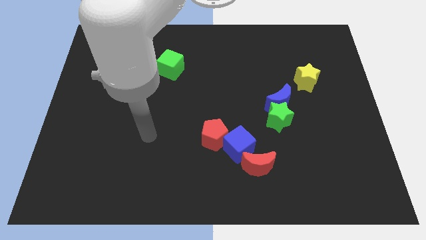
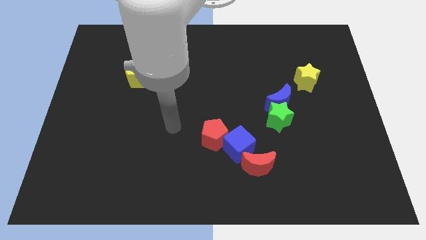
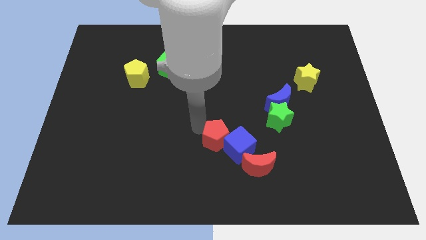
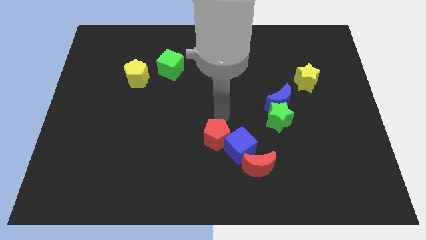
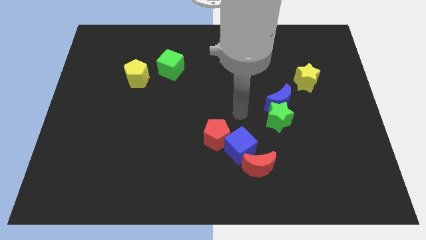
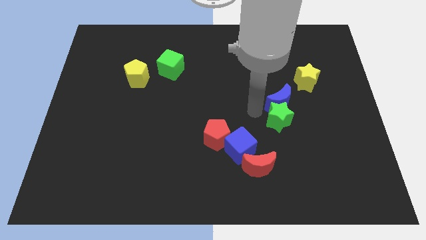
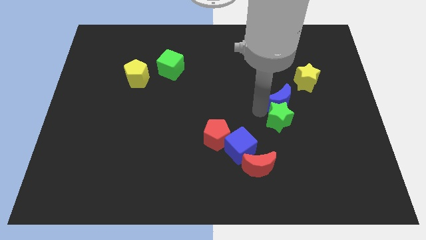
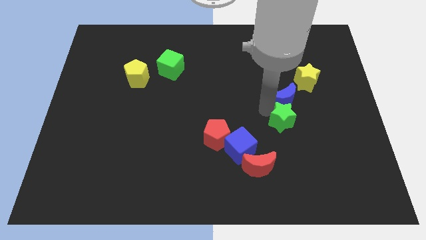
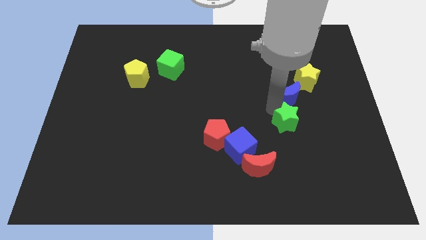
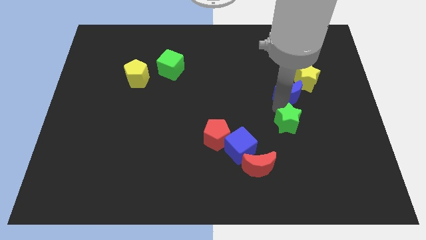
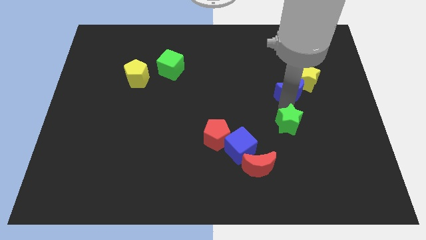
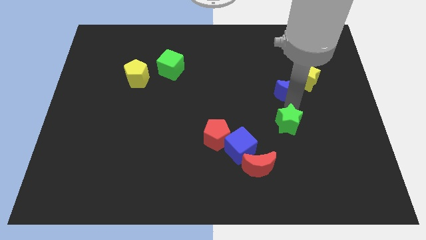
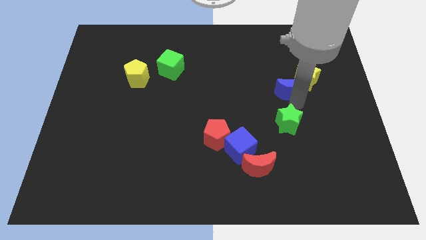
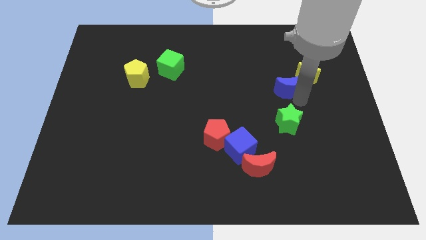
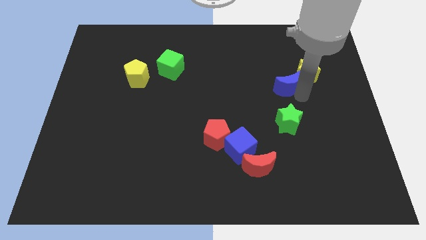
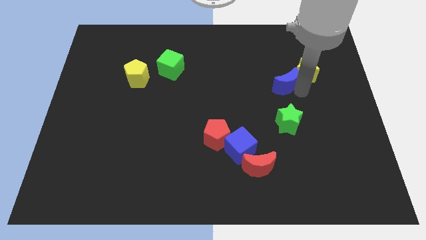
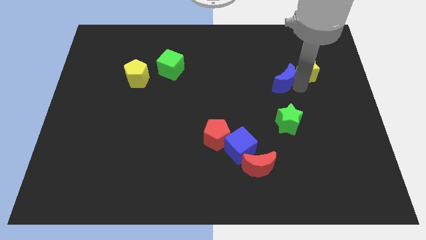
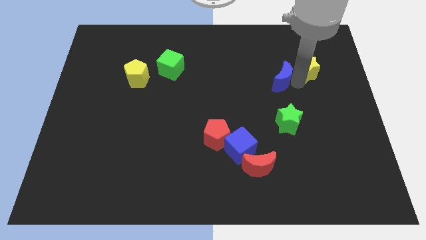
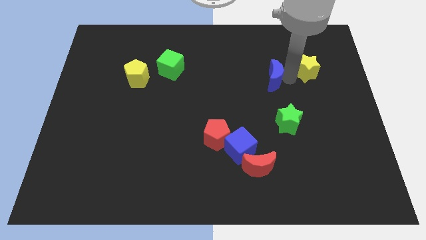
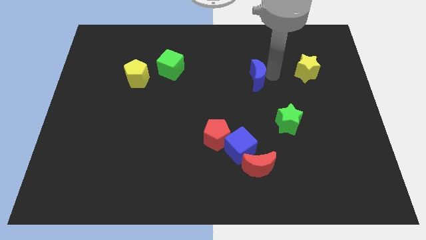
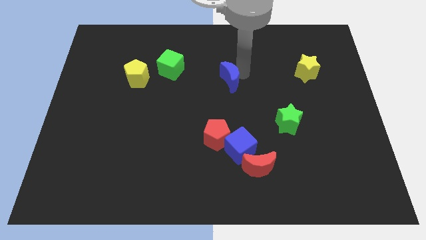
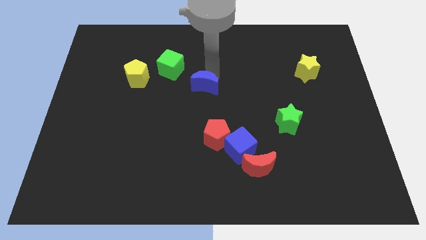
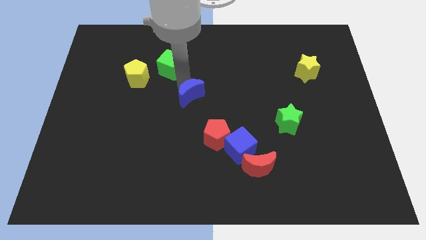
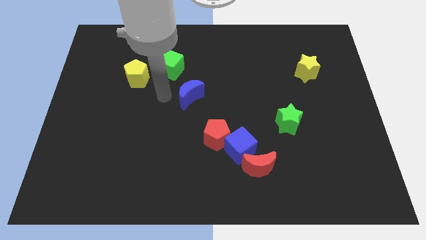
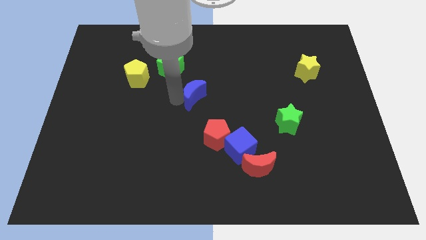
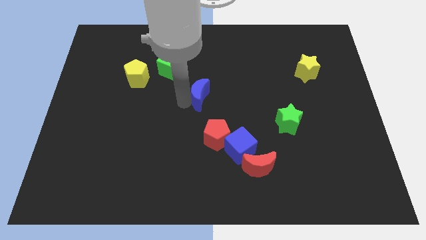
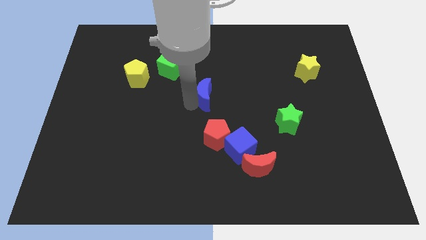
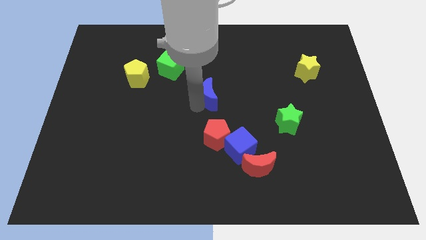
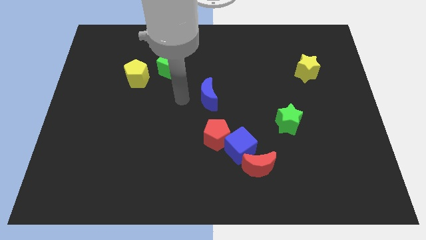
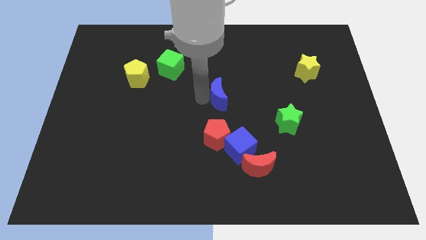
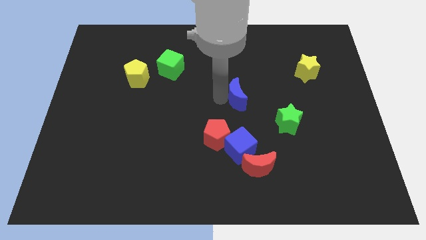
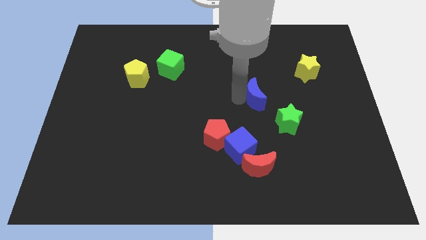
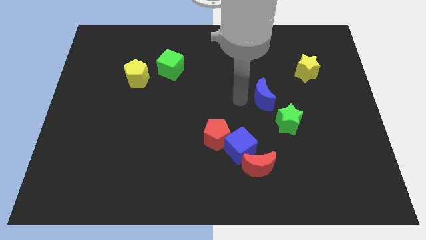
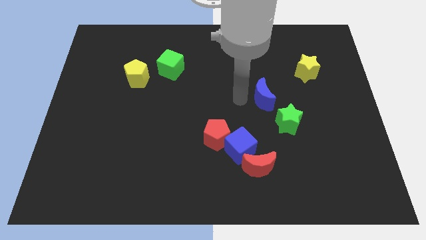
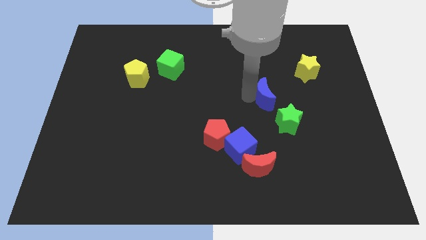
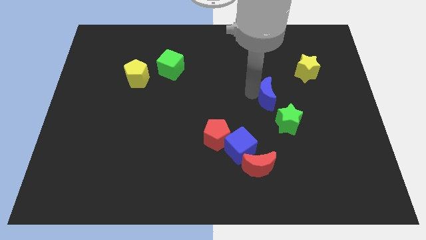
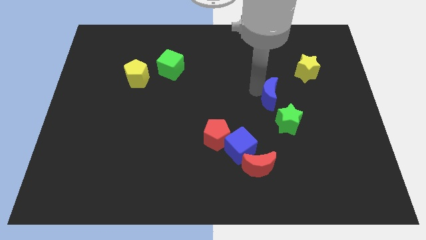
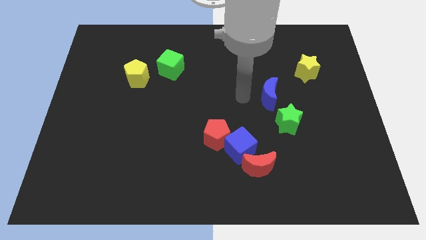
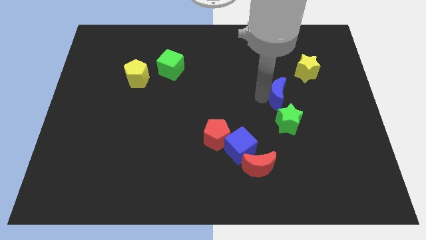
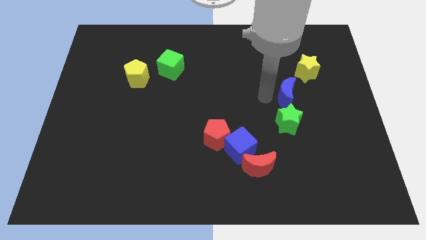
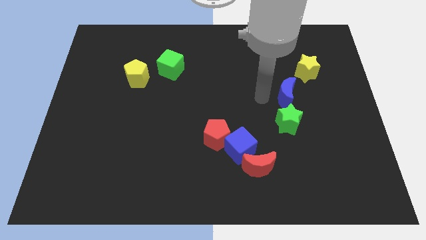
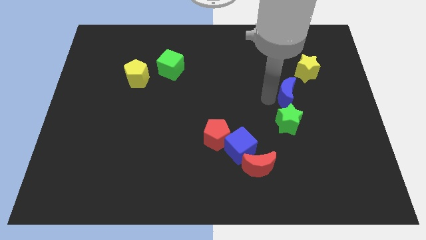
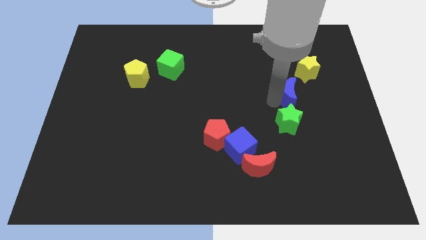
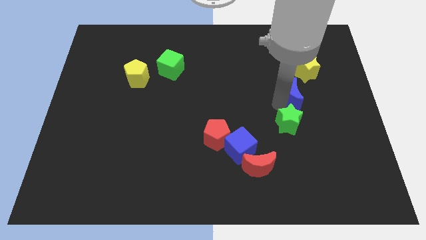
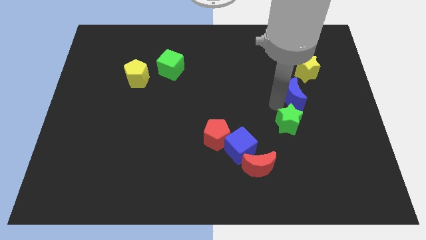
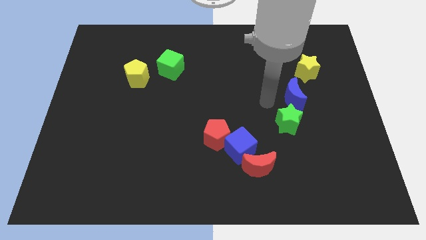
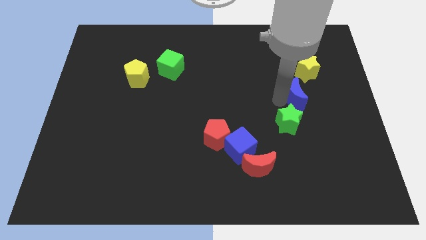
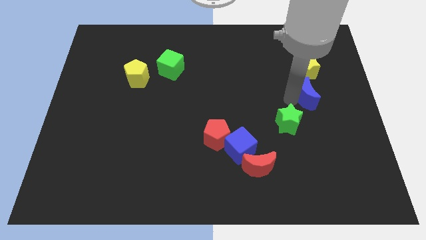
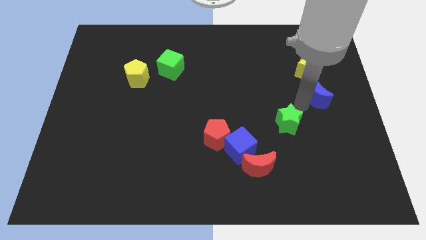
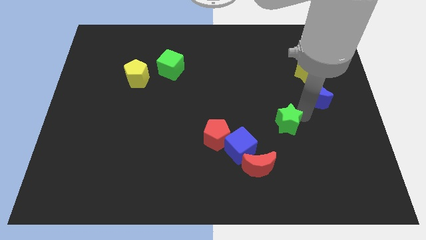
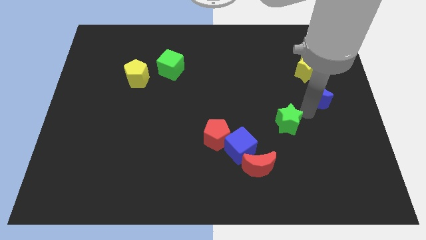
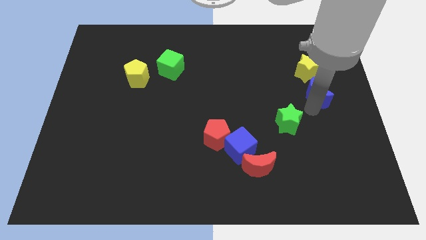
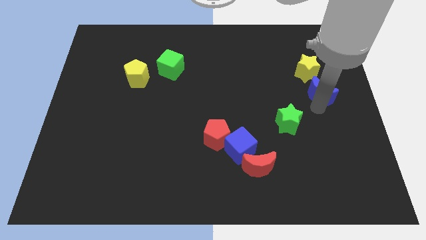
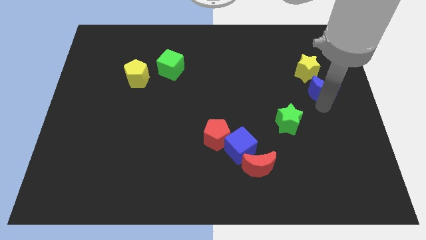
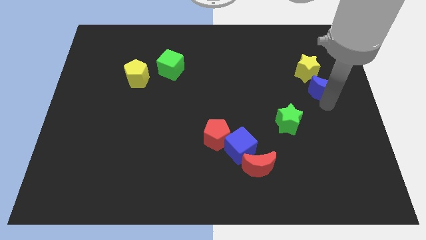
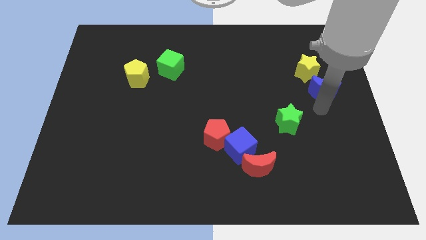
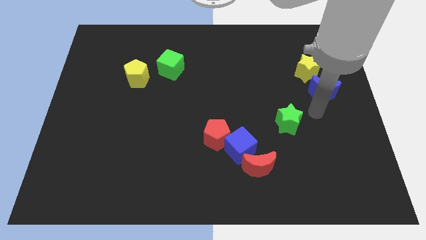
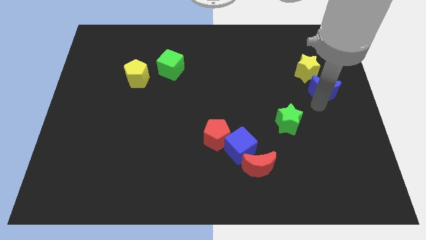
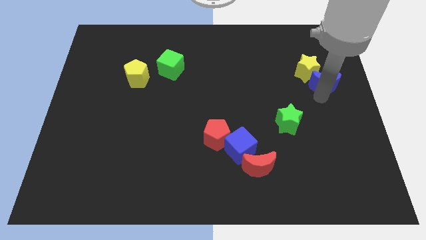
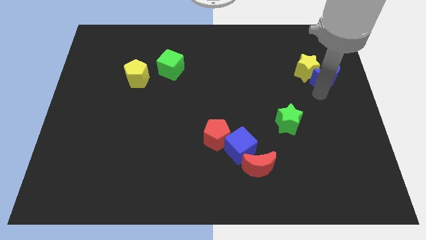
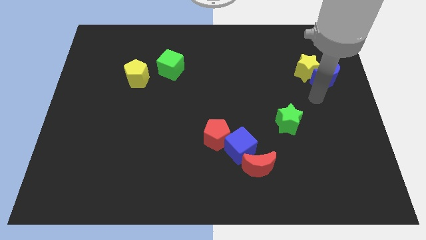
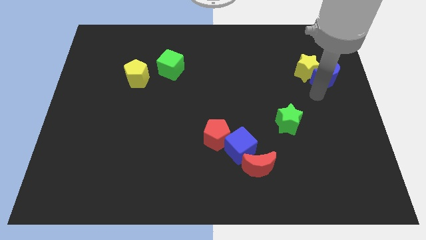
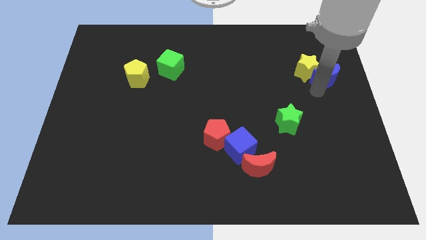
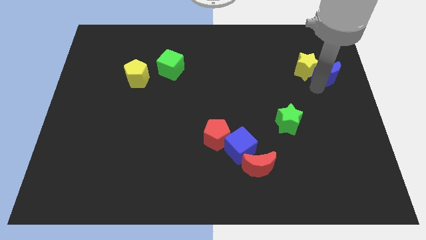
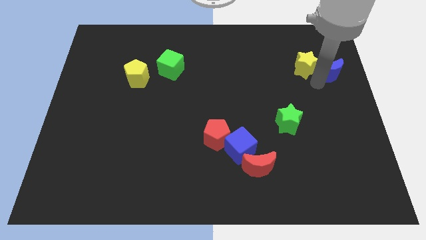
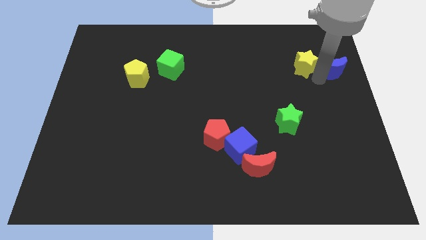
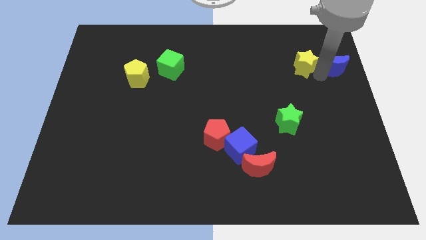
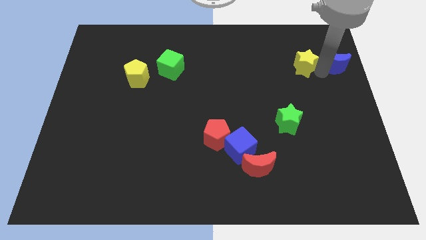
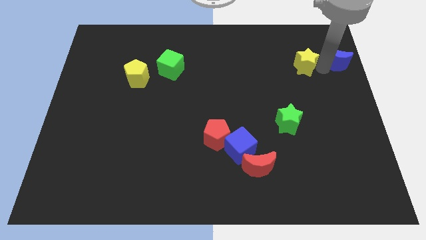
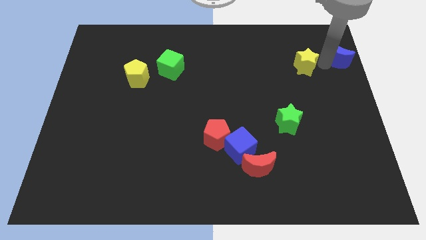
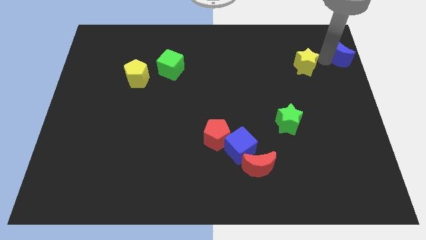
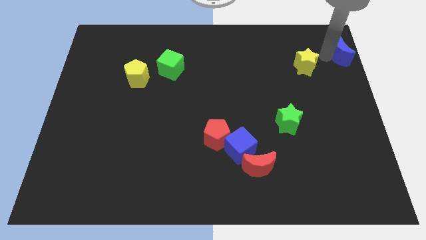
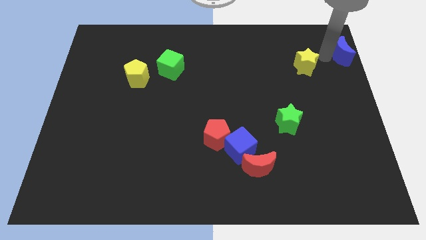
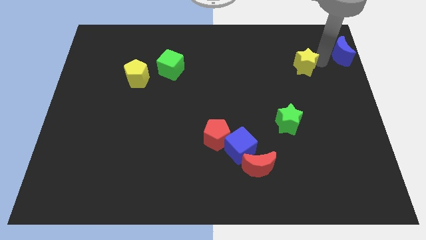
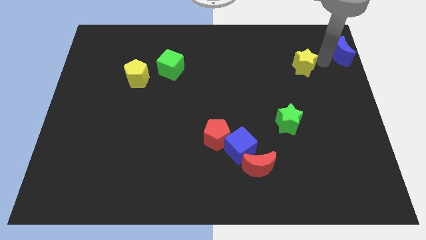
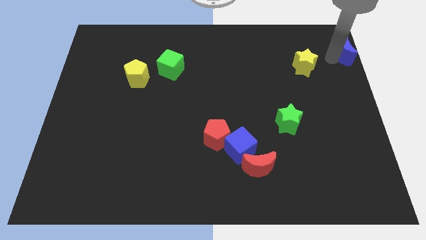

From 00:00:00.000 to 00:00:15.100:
put the blue moon to the top right
